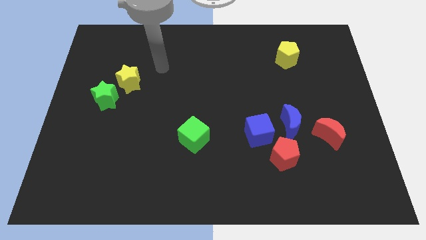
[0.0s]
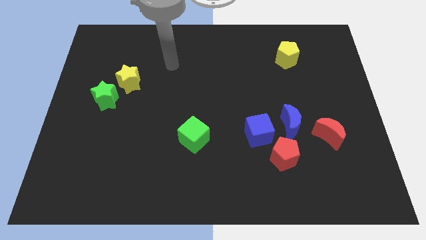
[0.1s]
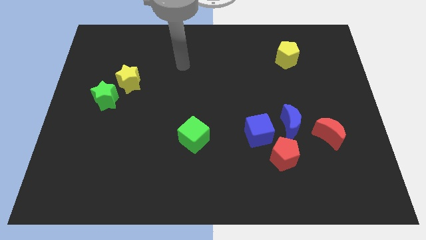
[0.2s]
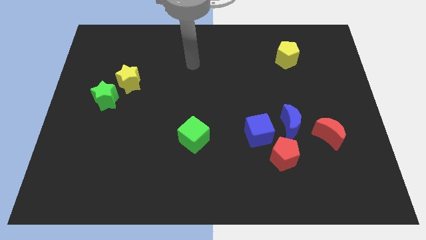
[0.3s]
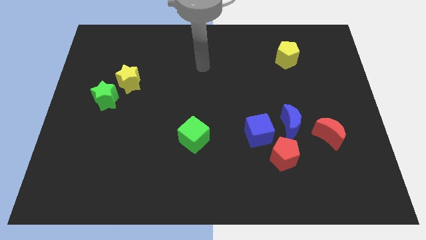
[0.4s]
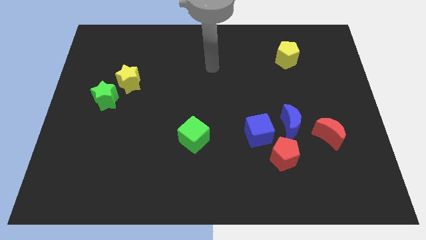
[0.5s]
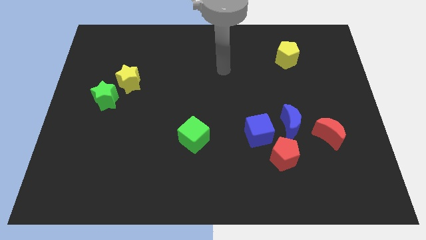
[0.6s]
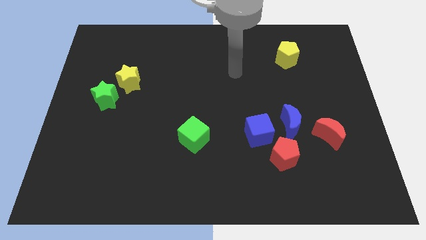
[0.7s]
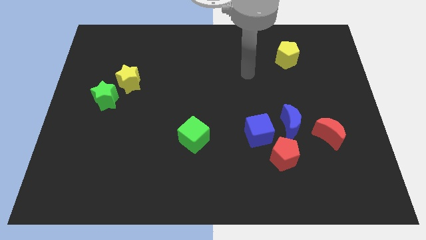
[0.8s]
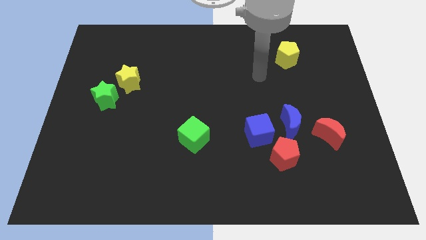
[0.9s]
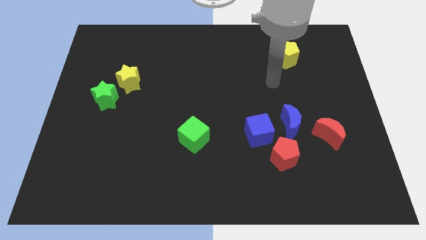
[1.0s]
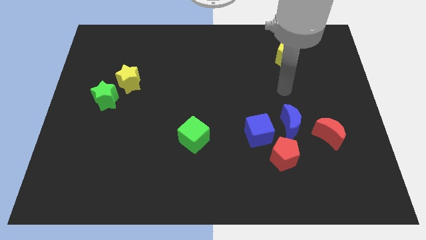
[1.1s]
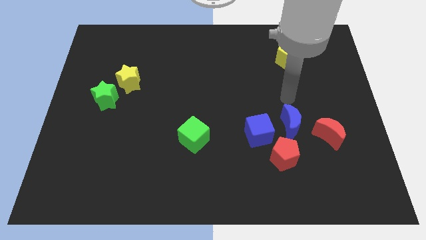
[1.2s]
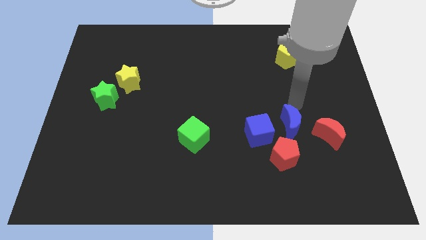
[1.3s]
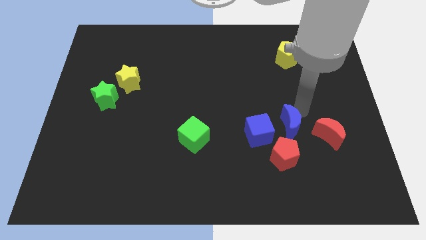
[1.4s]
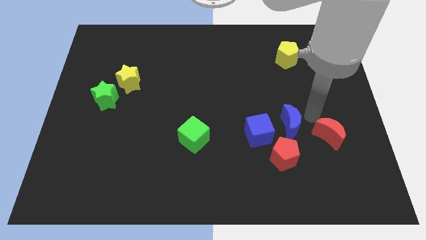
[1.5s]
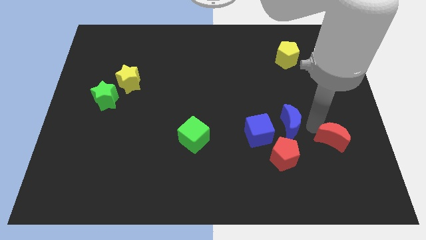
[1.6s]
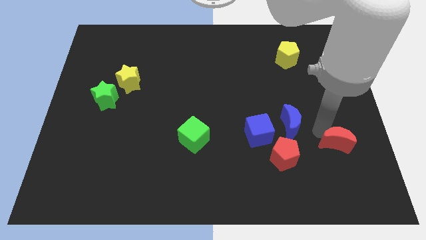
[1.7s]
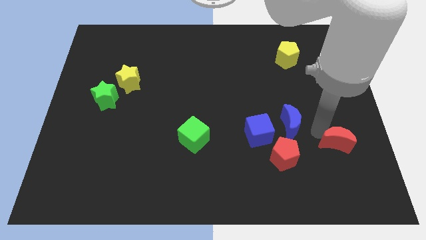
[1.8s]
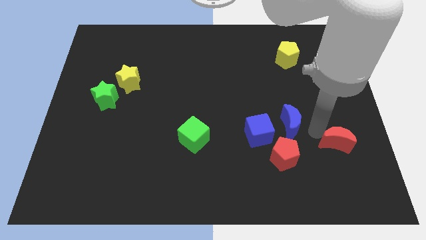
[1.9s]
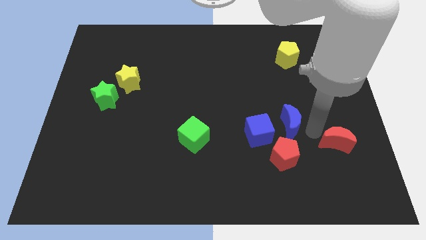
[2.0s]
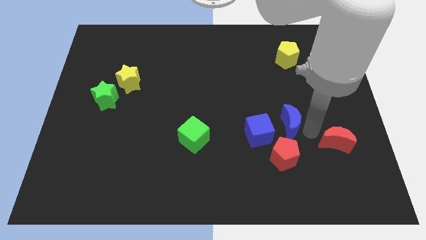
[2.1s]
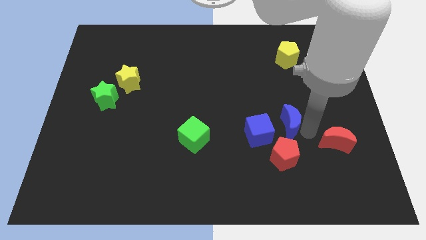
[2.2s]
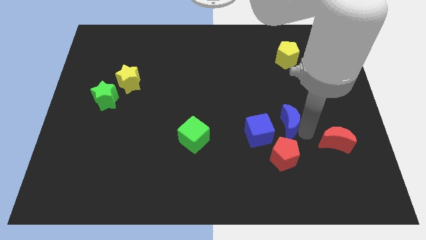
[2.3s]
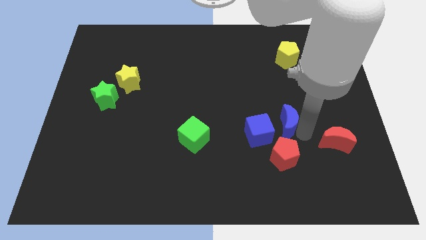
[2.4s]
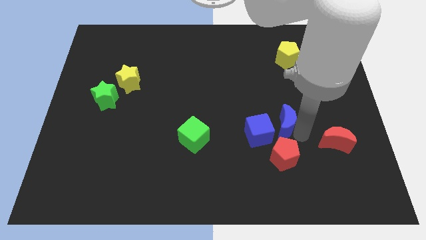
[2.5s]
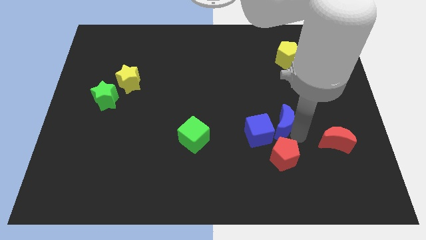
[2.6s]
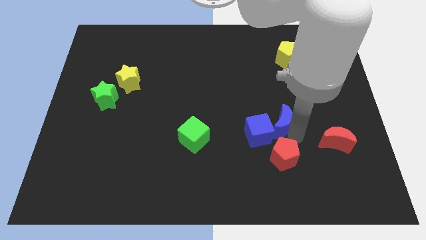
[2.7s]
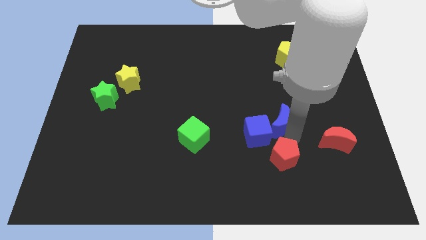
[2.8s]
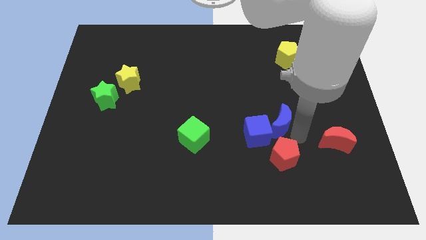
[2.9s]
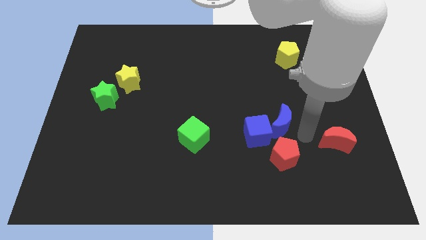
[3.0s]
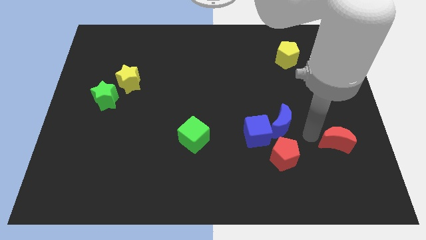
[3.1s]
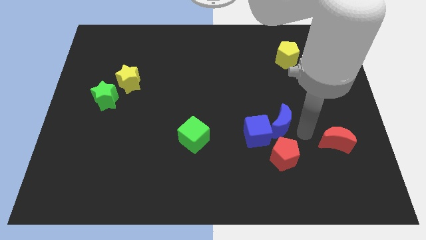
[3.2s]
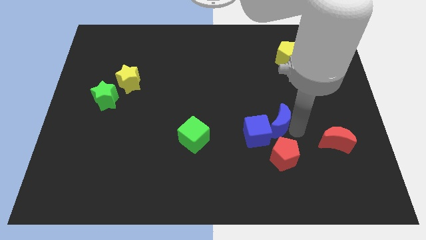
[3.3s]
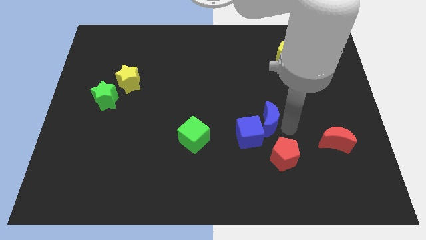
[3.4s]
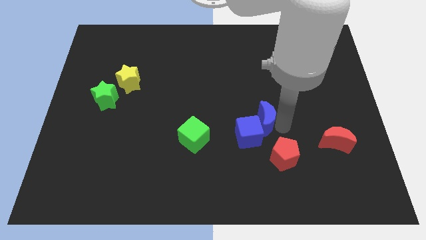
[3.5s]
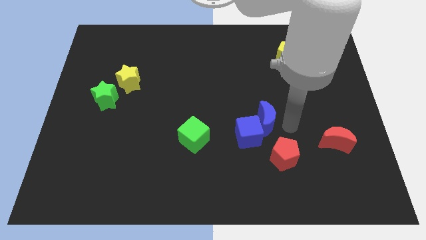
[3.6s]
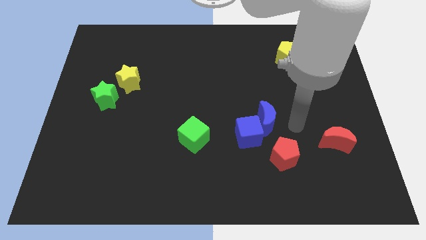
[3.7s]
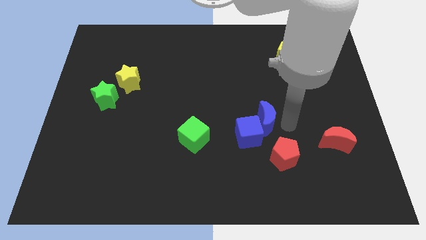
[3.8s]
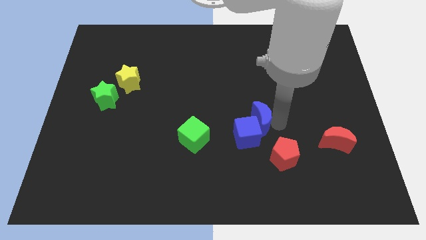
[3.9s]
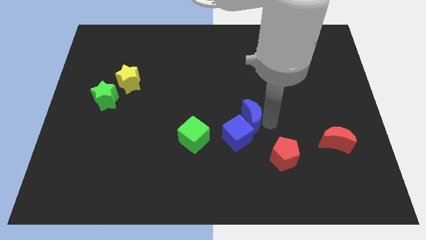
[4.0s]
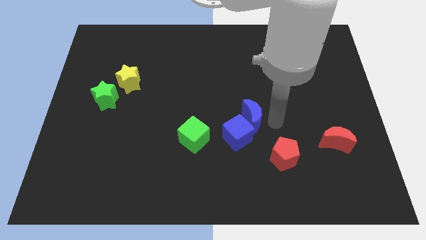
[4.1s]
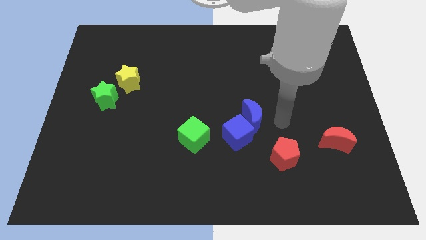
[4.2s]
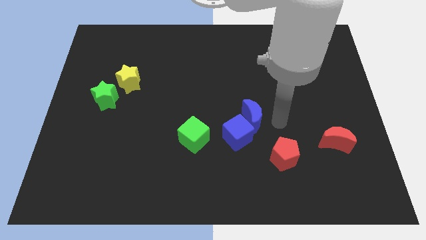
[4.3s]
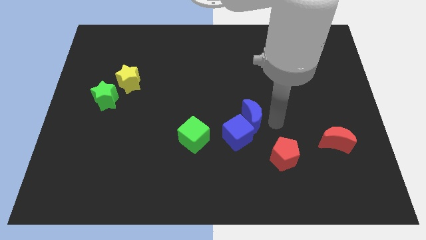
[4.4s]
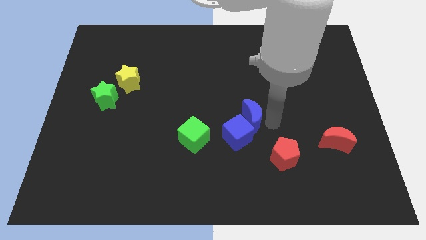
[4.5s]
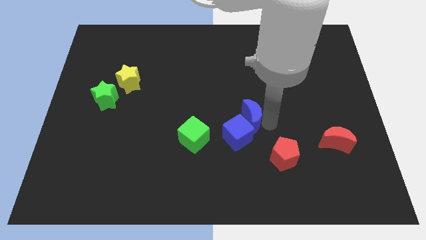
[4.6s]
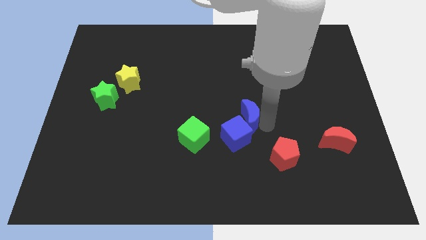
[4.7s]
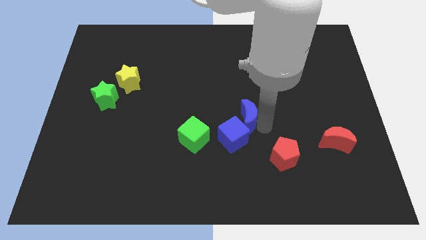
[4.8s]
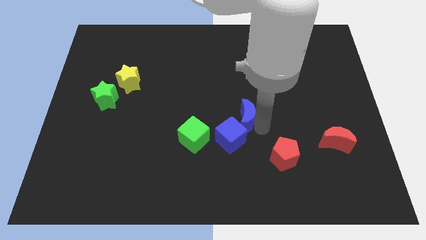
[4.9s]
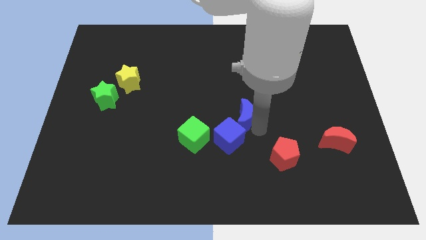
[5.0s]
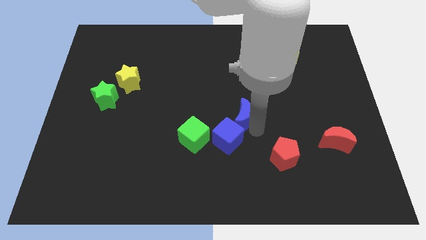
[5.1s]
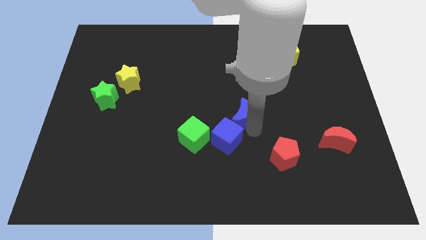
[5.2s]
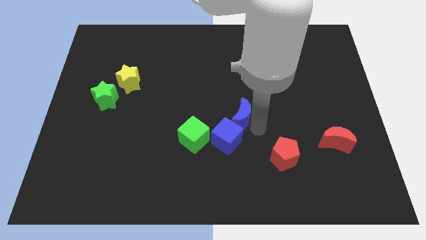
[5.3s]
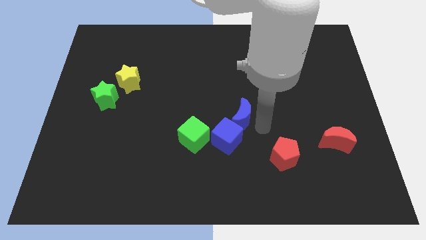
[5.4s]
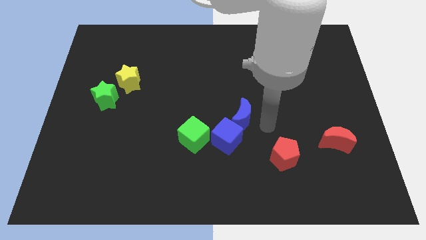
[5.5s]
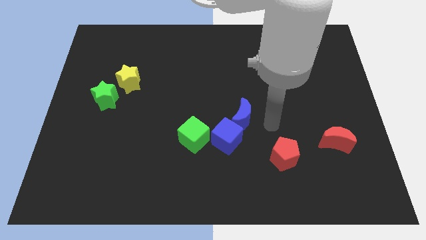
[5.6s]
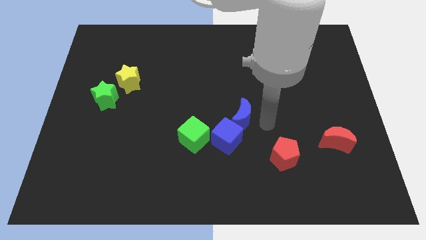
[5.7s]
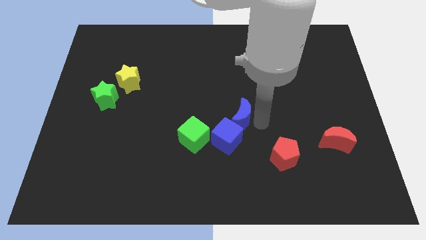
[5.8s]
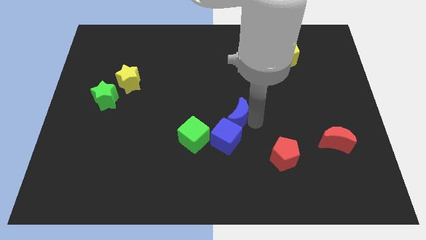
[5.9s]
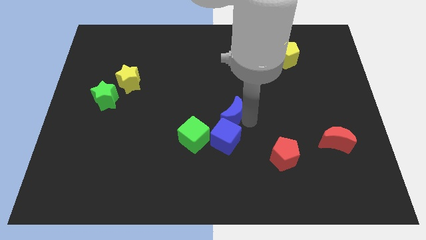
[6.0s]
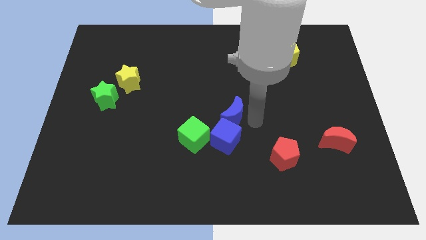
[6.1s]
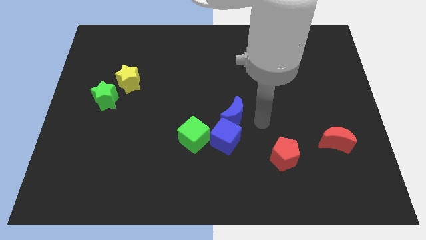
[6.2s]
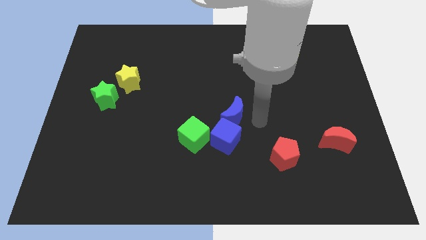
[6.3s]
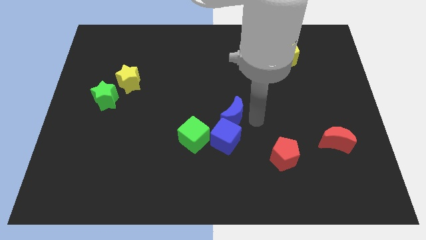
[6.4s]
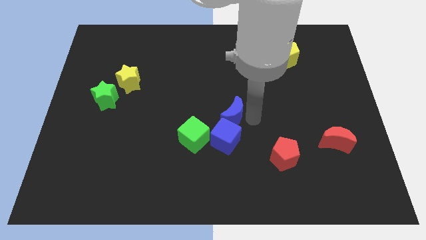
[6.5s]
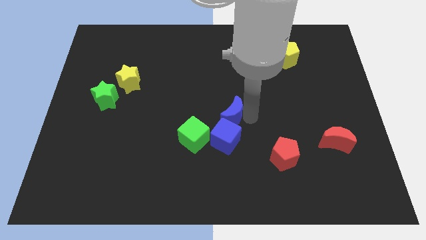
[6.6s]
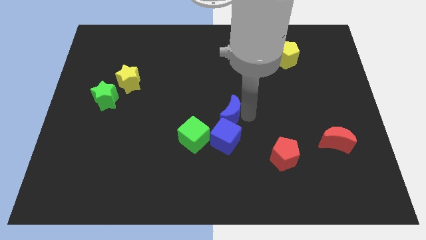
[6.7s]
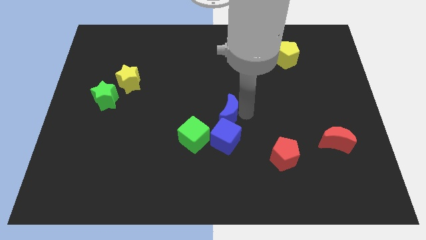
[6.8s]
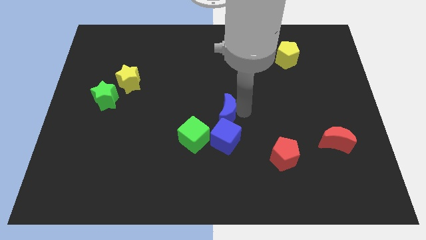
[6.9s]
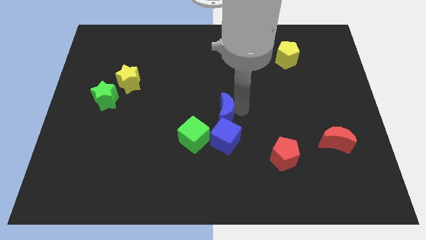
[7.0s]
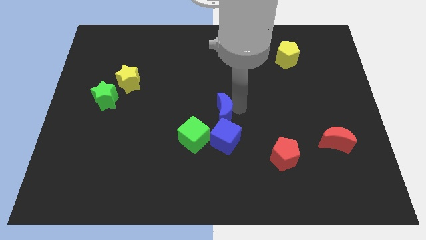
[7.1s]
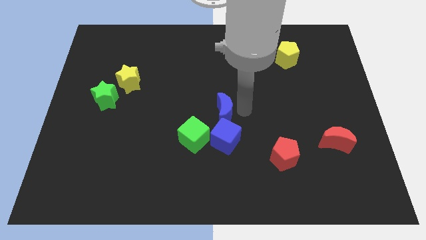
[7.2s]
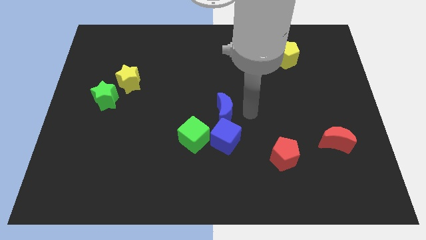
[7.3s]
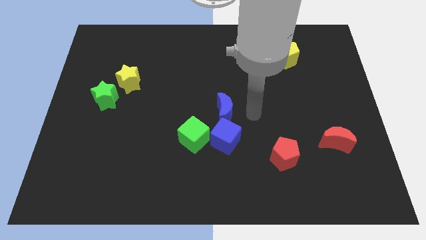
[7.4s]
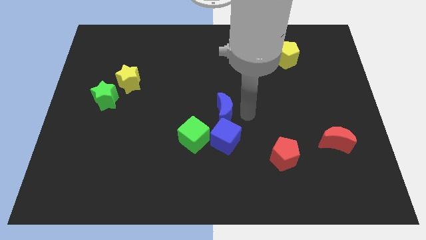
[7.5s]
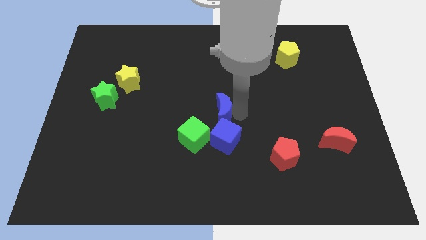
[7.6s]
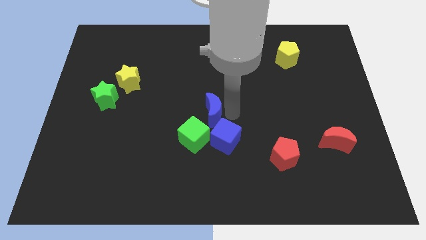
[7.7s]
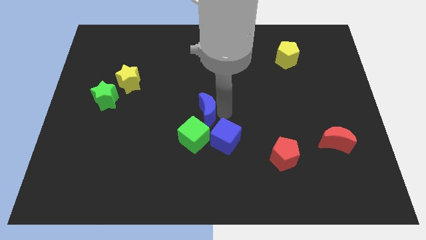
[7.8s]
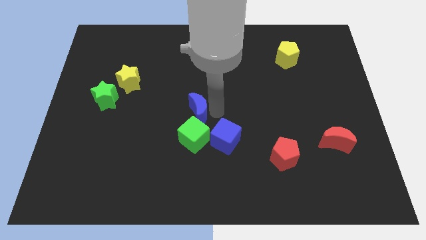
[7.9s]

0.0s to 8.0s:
slide the blue moon to the left
